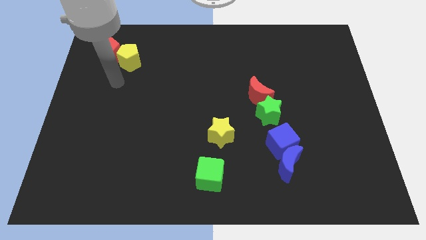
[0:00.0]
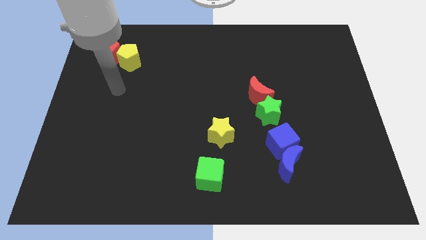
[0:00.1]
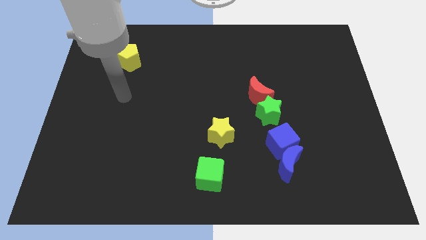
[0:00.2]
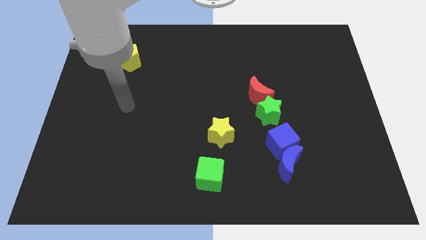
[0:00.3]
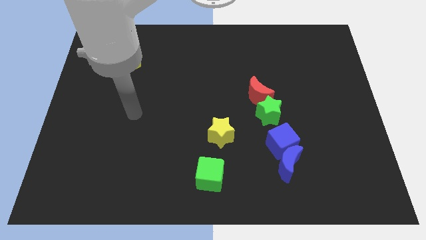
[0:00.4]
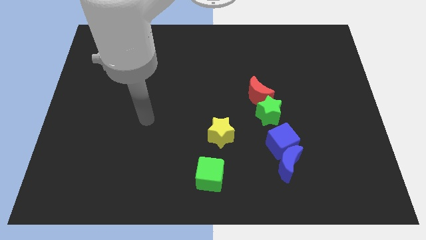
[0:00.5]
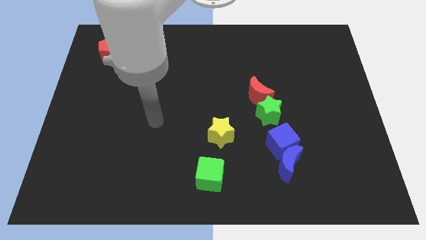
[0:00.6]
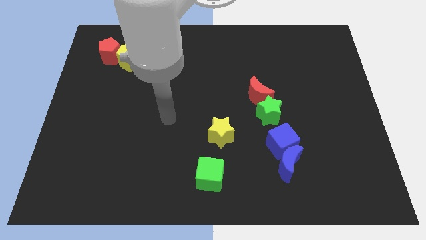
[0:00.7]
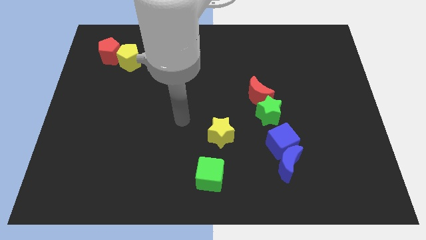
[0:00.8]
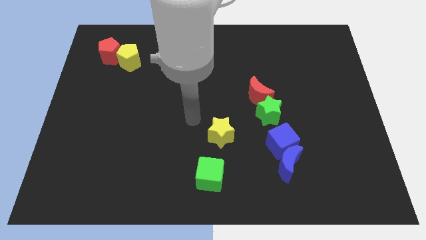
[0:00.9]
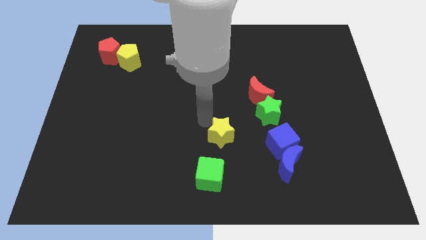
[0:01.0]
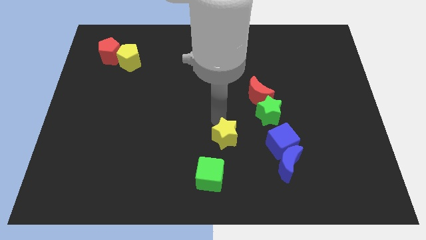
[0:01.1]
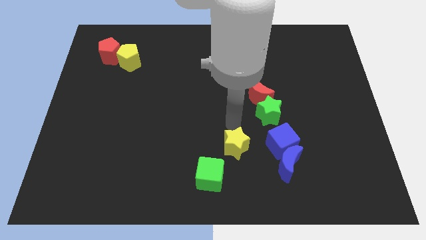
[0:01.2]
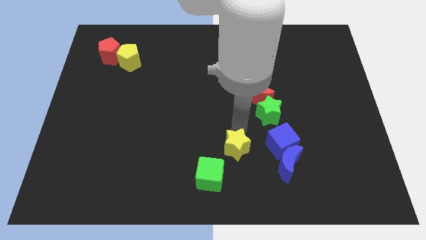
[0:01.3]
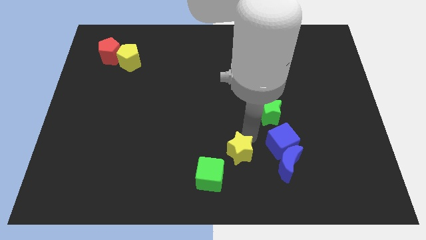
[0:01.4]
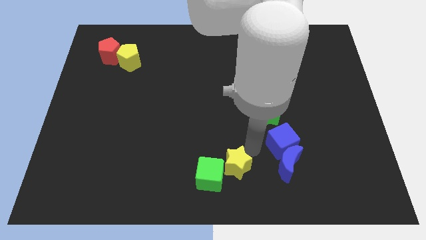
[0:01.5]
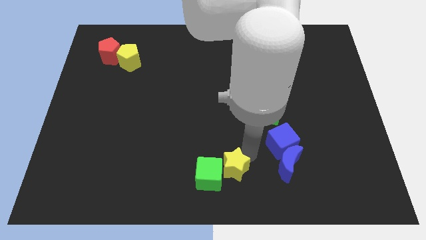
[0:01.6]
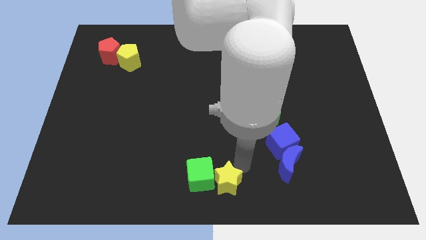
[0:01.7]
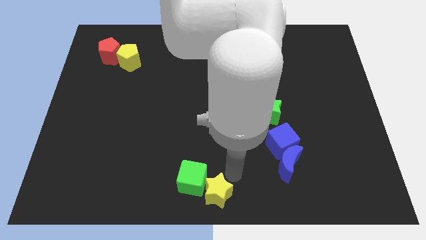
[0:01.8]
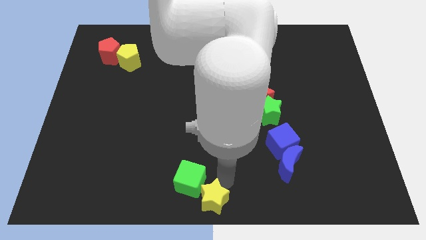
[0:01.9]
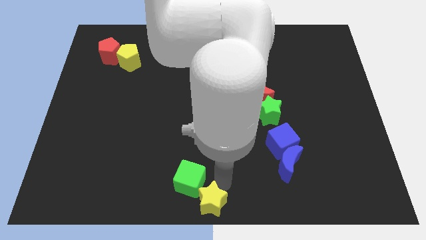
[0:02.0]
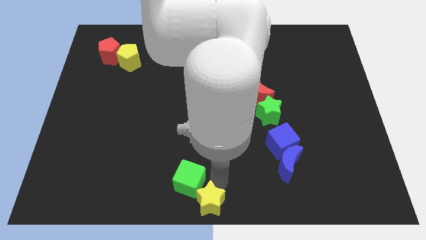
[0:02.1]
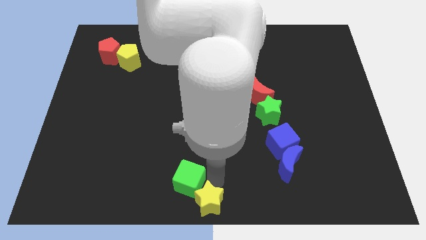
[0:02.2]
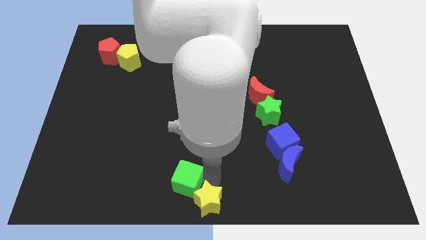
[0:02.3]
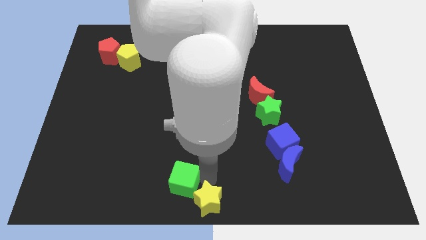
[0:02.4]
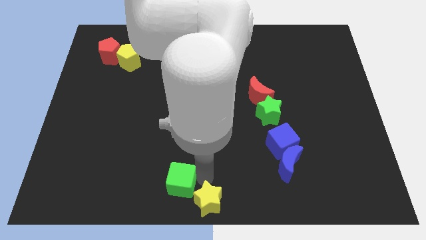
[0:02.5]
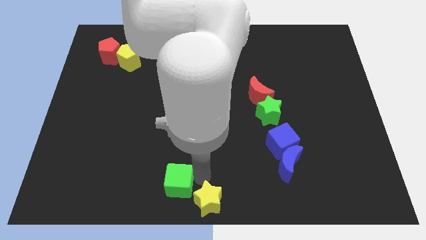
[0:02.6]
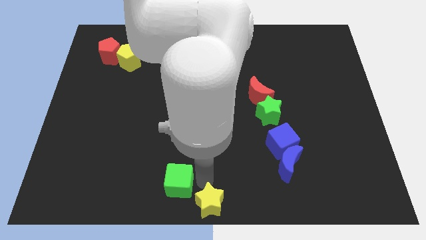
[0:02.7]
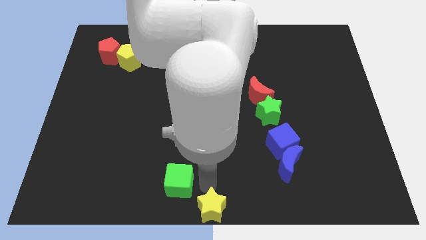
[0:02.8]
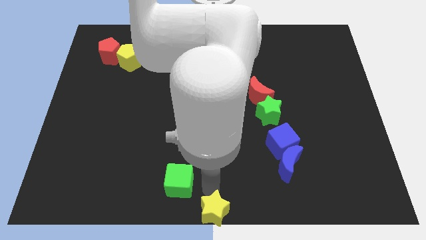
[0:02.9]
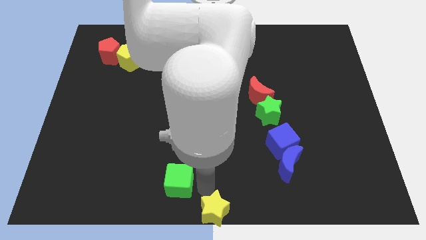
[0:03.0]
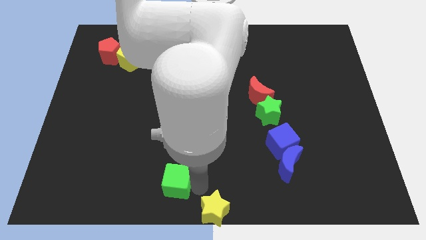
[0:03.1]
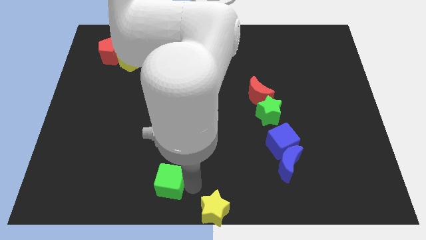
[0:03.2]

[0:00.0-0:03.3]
slide the green cube left a little

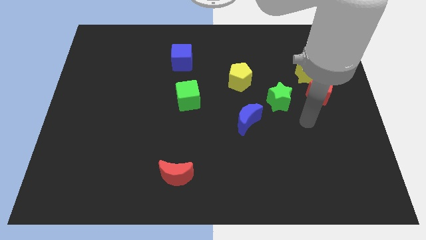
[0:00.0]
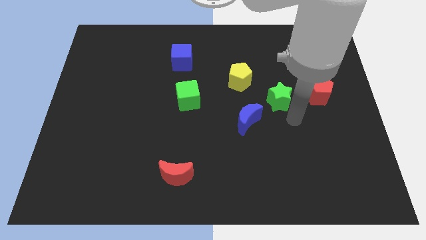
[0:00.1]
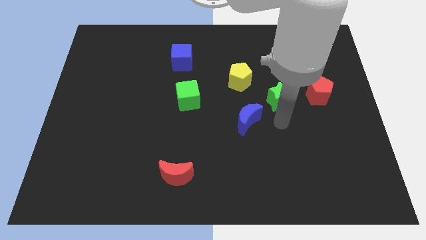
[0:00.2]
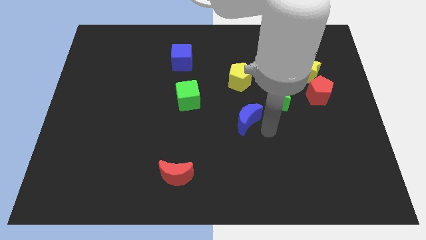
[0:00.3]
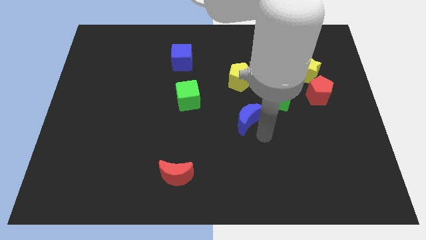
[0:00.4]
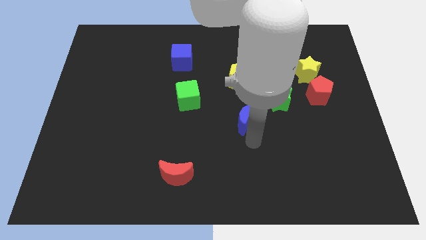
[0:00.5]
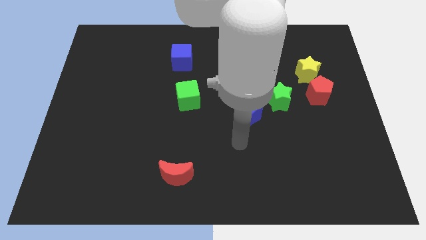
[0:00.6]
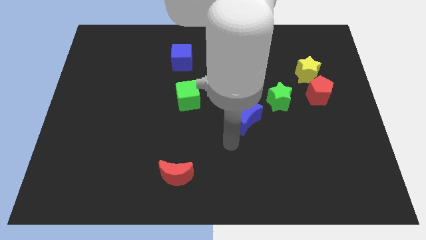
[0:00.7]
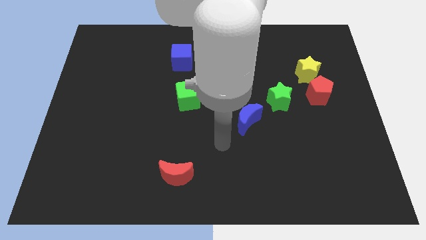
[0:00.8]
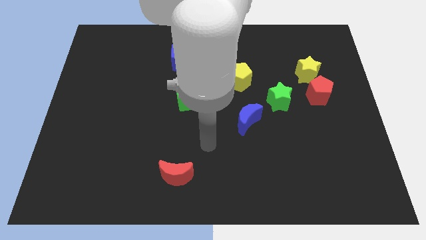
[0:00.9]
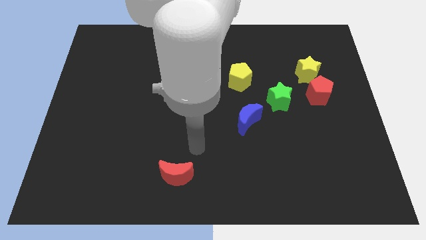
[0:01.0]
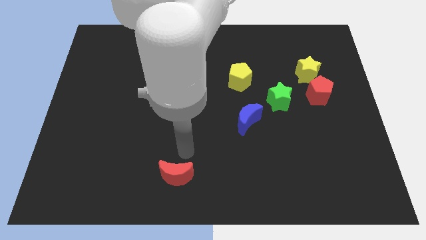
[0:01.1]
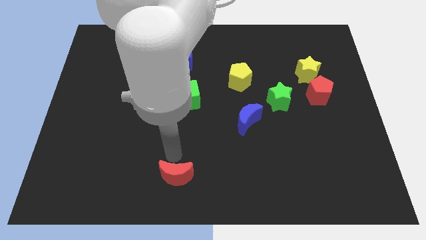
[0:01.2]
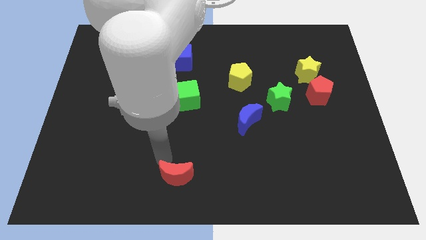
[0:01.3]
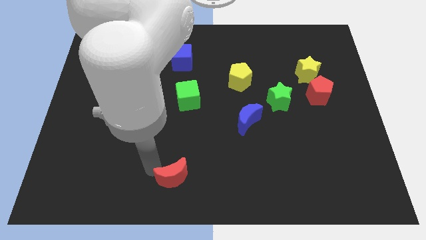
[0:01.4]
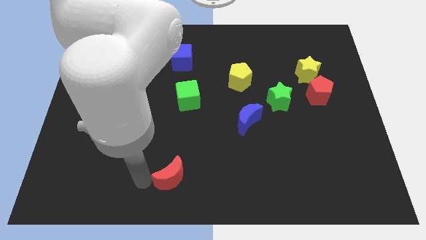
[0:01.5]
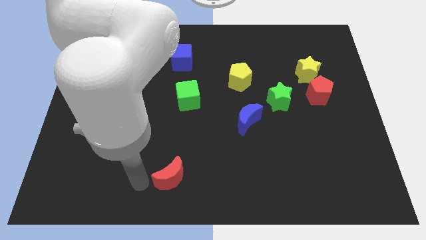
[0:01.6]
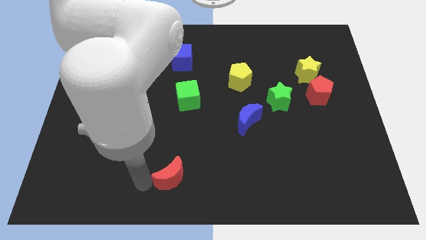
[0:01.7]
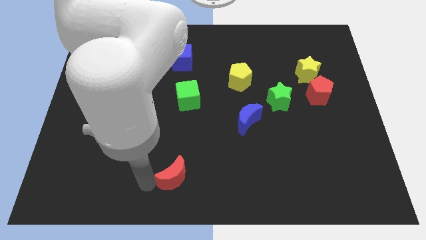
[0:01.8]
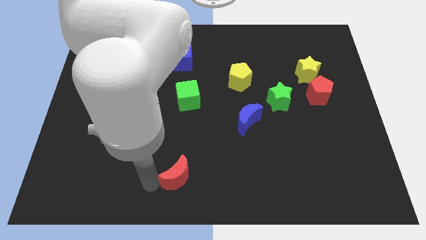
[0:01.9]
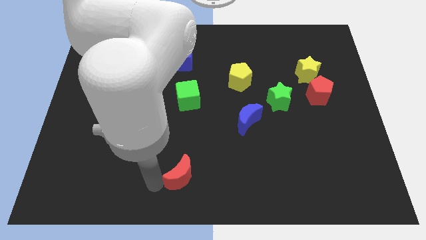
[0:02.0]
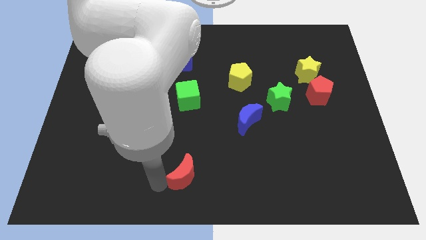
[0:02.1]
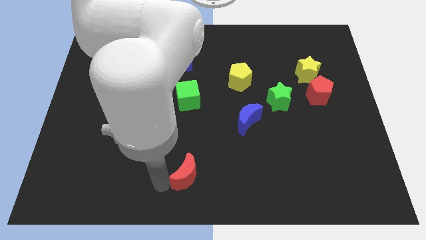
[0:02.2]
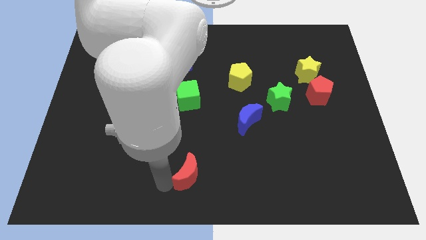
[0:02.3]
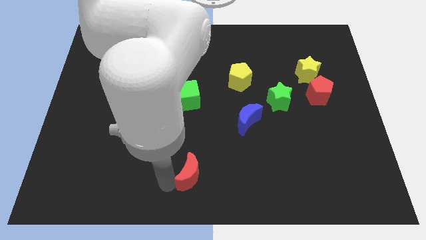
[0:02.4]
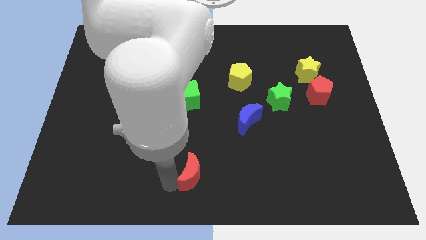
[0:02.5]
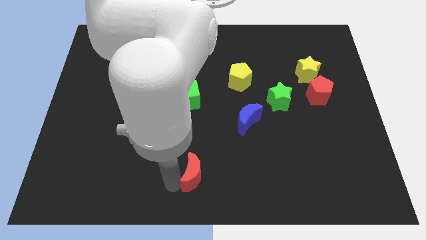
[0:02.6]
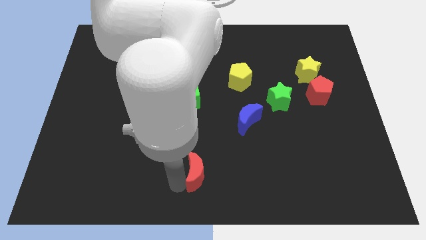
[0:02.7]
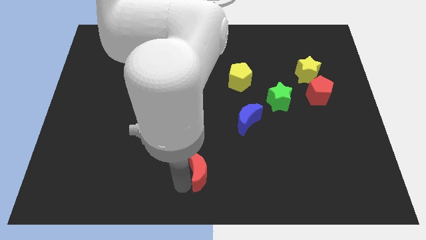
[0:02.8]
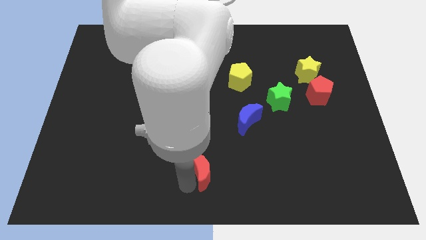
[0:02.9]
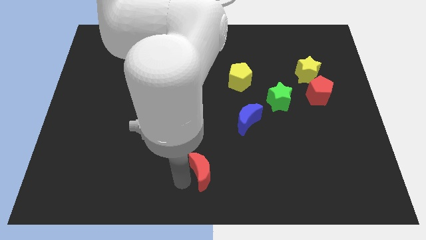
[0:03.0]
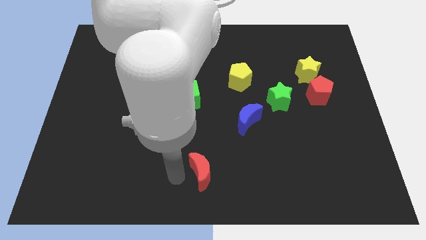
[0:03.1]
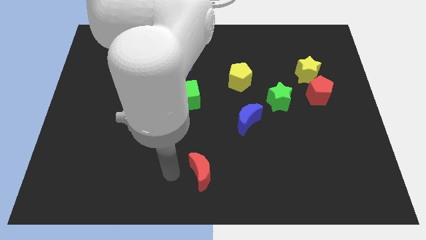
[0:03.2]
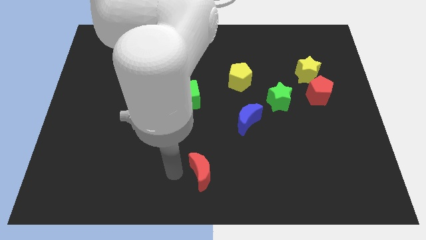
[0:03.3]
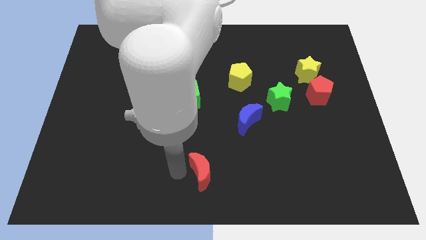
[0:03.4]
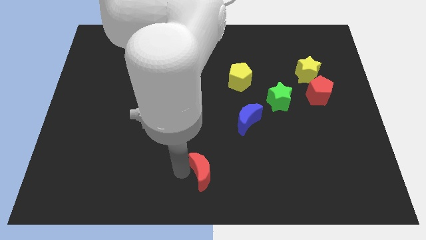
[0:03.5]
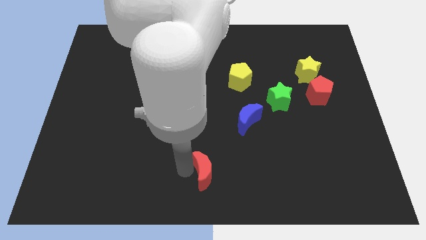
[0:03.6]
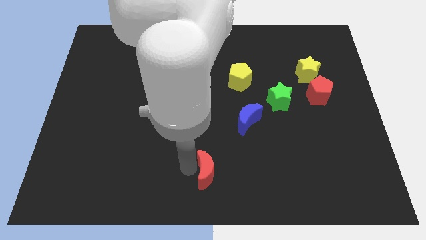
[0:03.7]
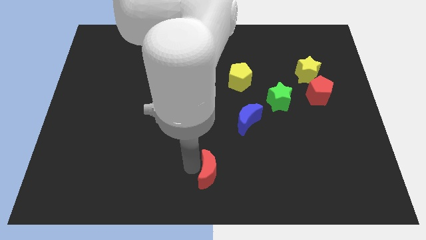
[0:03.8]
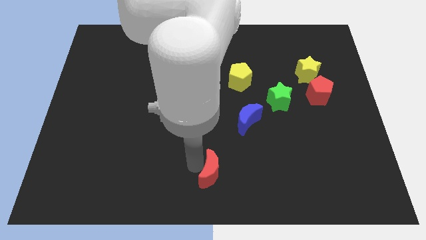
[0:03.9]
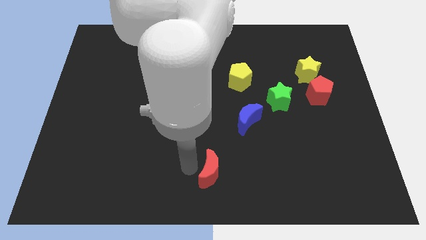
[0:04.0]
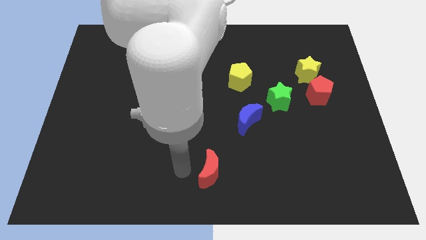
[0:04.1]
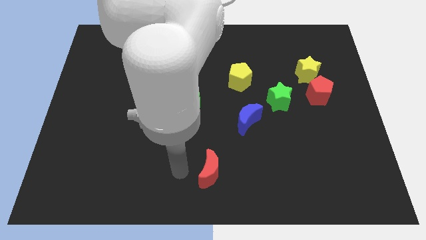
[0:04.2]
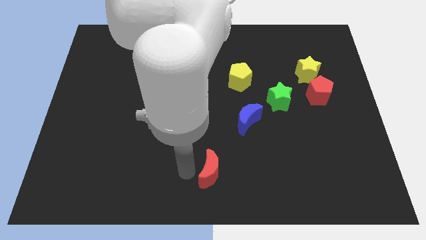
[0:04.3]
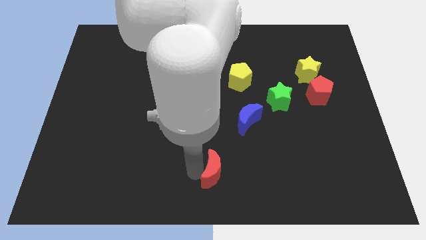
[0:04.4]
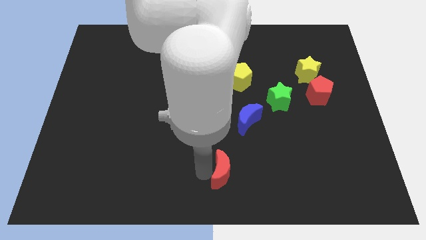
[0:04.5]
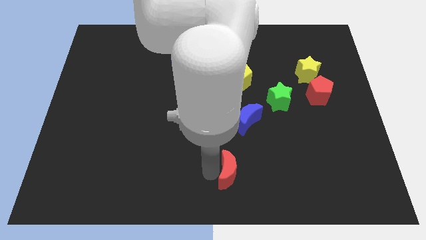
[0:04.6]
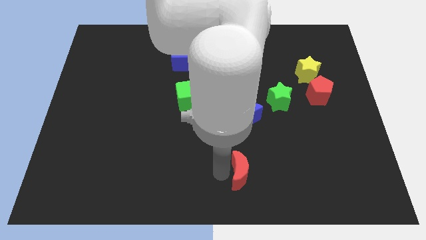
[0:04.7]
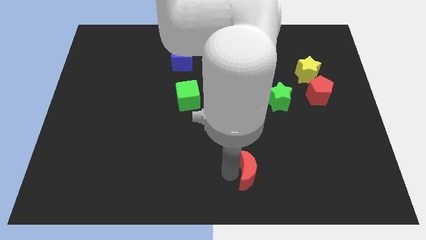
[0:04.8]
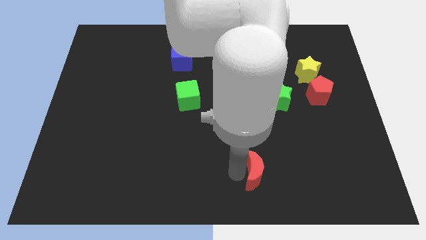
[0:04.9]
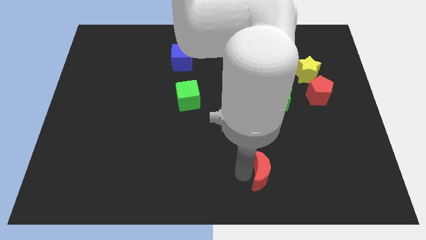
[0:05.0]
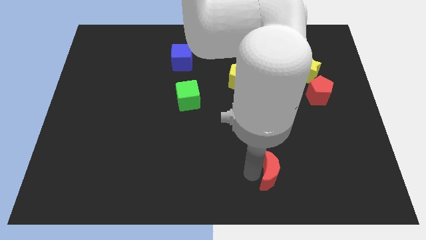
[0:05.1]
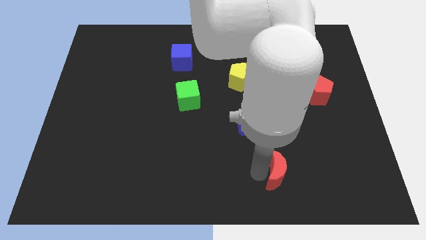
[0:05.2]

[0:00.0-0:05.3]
move the red moon right
